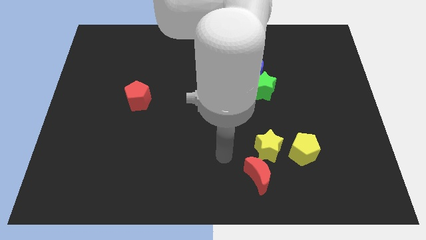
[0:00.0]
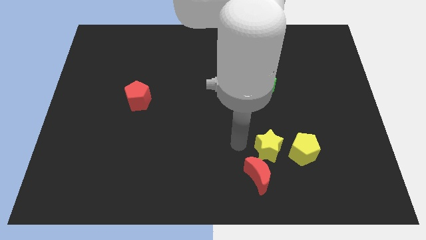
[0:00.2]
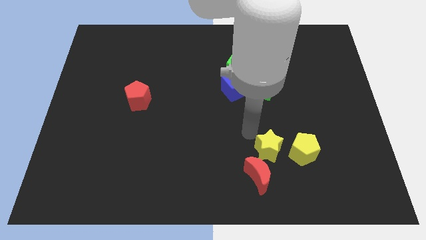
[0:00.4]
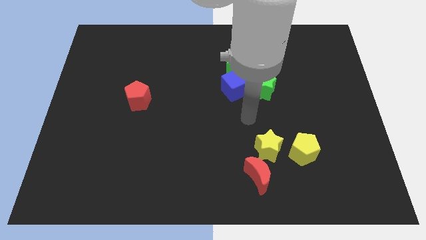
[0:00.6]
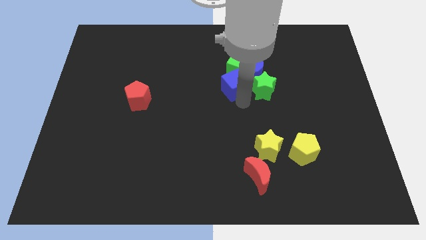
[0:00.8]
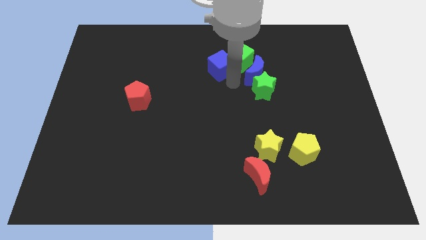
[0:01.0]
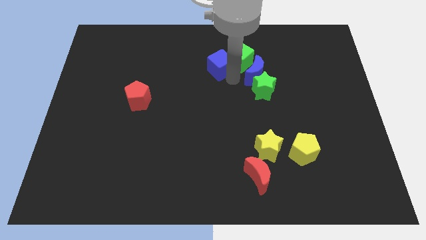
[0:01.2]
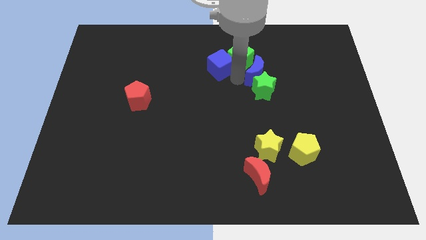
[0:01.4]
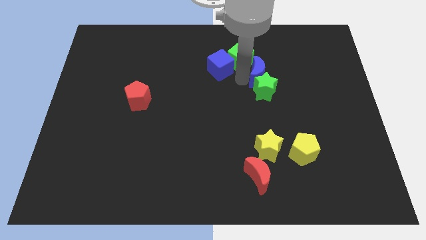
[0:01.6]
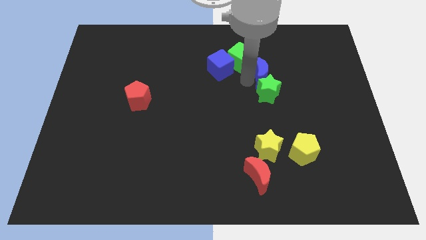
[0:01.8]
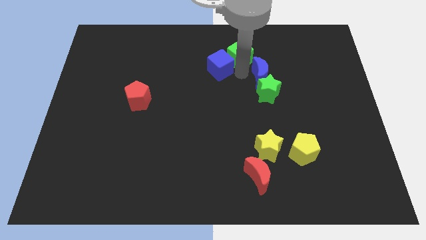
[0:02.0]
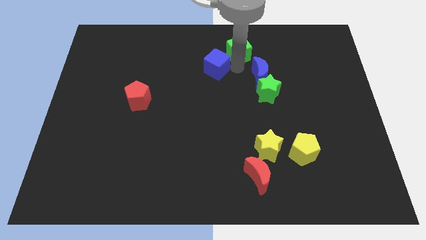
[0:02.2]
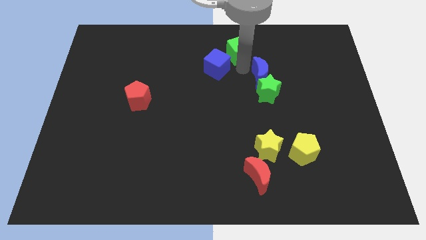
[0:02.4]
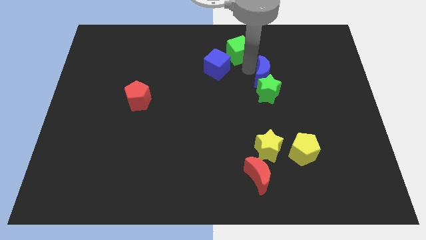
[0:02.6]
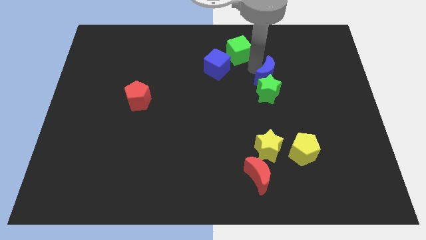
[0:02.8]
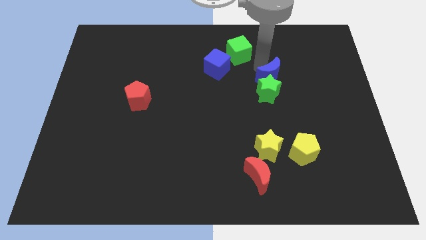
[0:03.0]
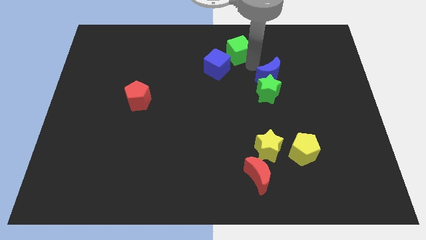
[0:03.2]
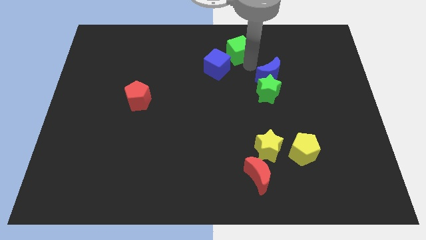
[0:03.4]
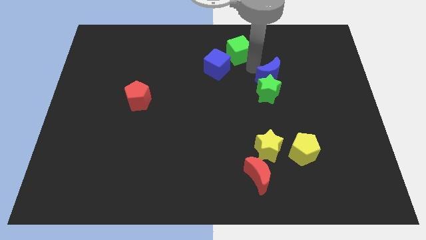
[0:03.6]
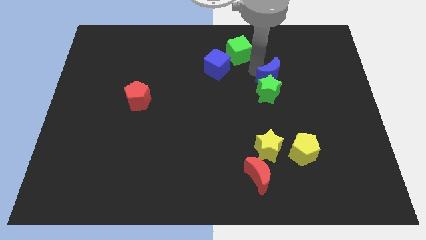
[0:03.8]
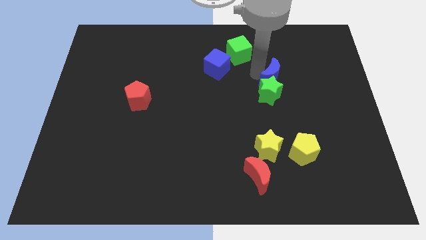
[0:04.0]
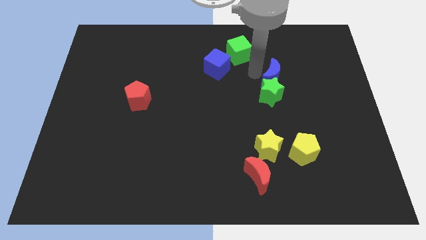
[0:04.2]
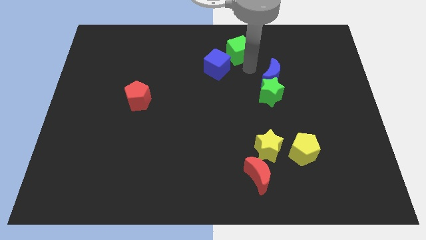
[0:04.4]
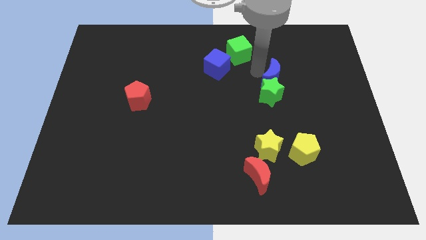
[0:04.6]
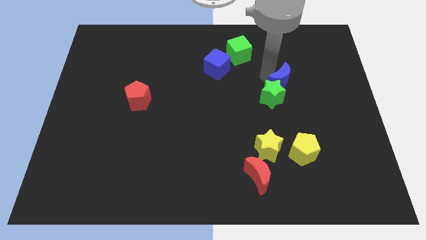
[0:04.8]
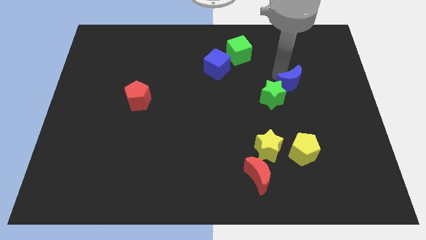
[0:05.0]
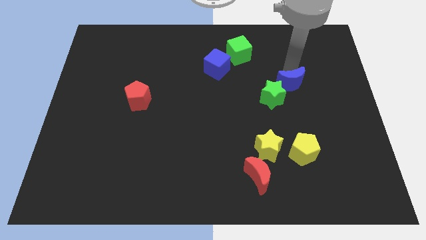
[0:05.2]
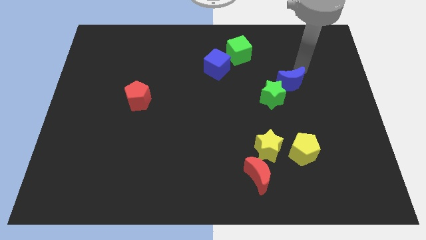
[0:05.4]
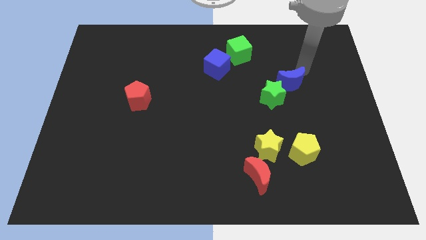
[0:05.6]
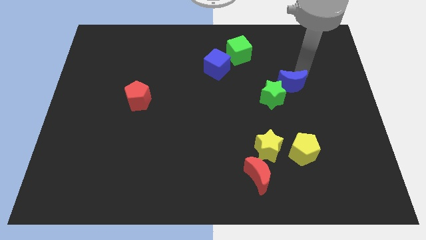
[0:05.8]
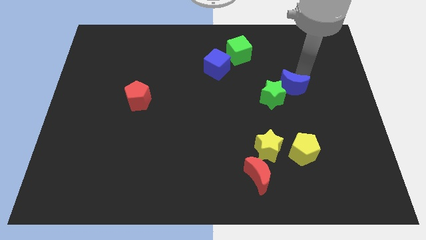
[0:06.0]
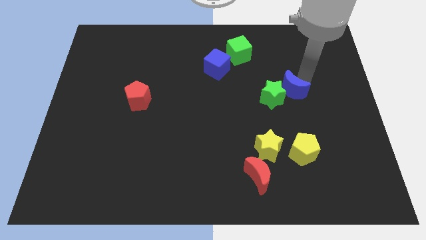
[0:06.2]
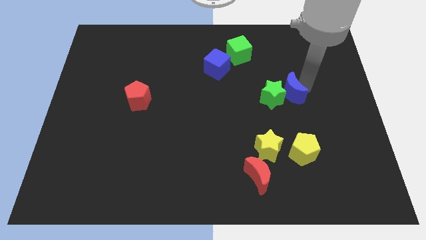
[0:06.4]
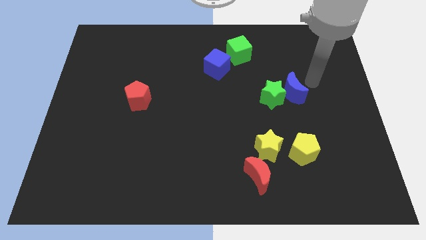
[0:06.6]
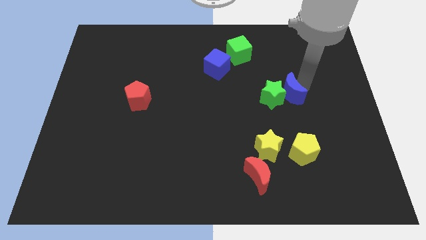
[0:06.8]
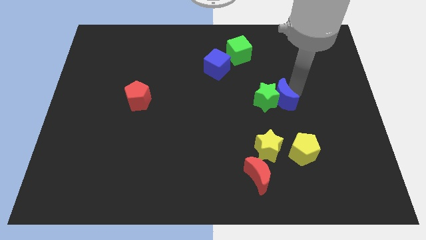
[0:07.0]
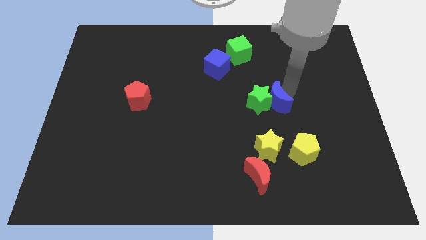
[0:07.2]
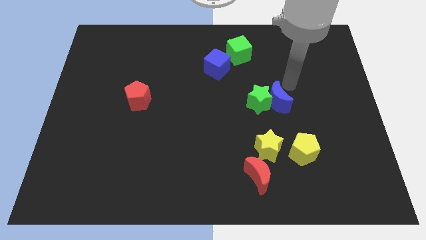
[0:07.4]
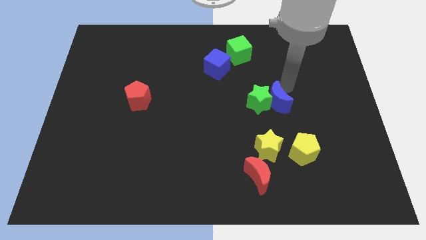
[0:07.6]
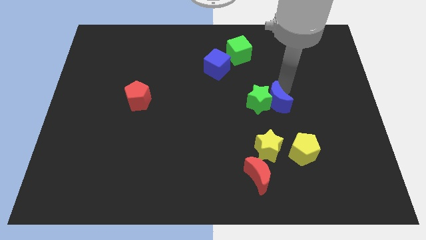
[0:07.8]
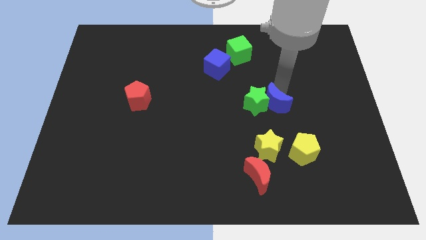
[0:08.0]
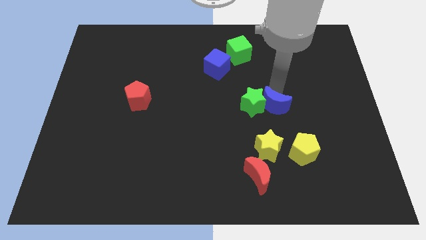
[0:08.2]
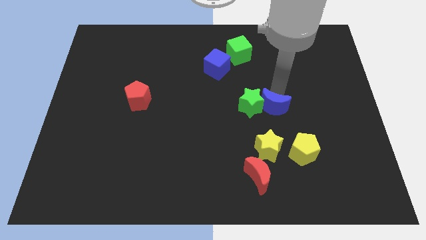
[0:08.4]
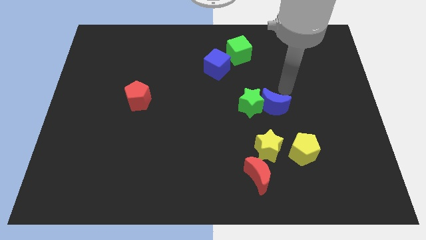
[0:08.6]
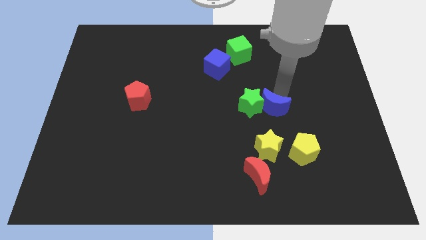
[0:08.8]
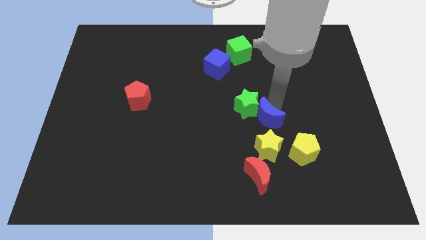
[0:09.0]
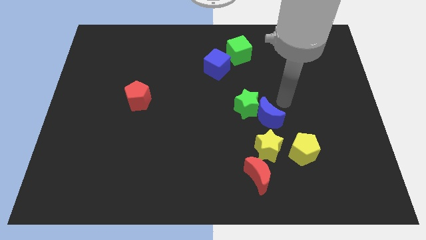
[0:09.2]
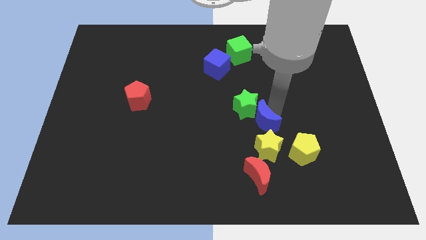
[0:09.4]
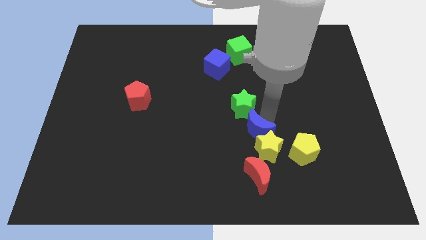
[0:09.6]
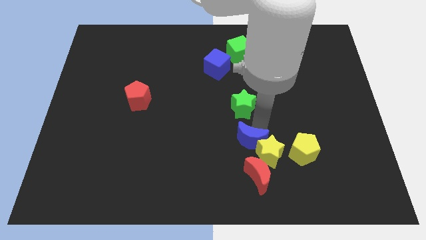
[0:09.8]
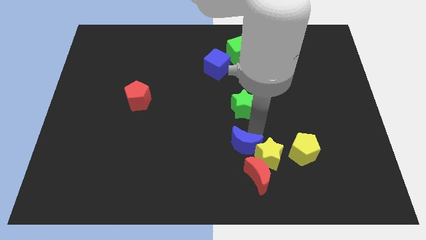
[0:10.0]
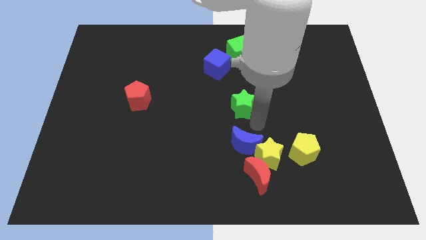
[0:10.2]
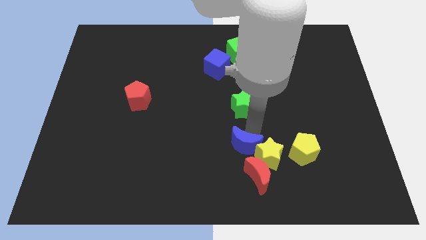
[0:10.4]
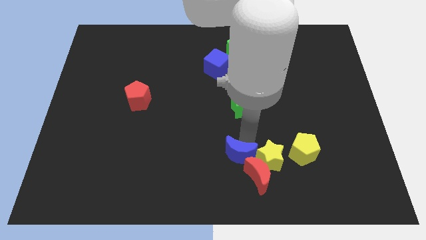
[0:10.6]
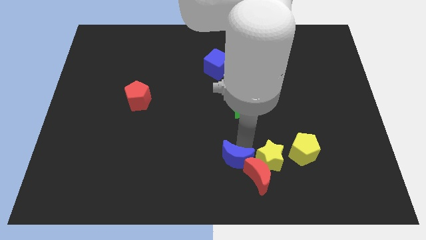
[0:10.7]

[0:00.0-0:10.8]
slide the blue moon to the bottom

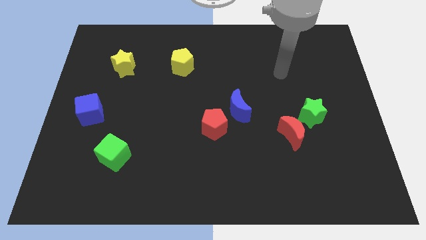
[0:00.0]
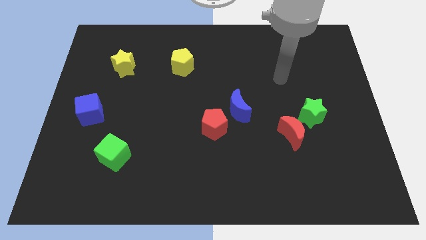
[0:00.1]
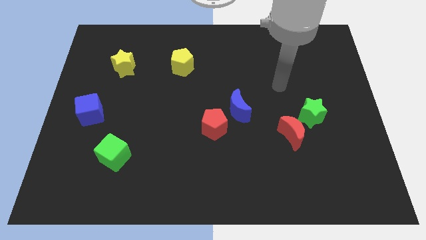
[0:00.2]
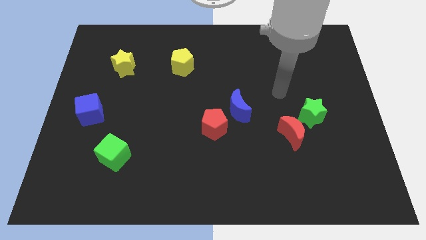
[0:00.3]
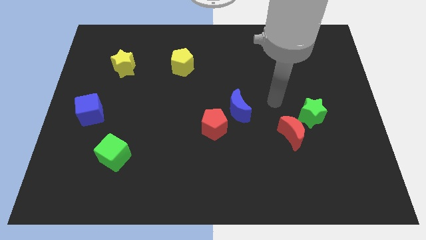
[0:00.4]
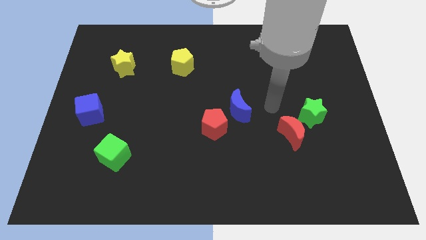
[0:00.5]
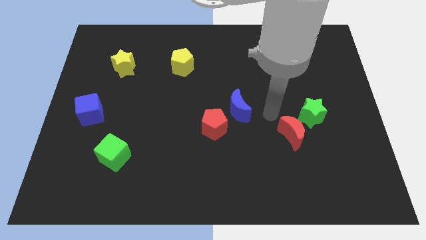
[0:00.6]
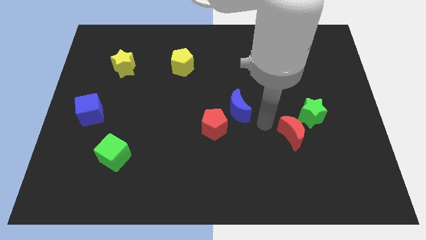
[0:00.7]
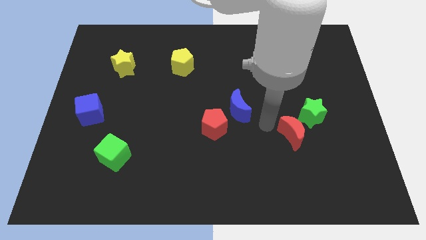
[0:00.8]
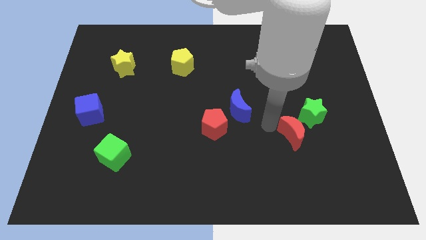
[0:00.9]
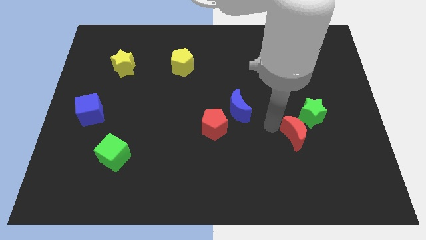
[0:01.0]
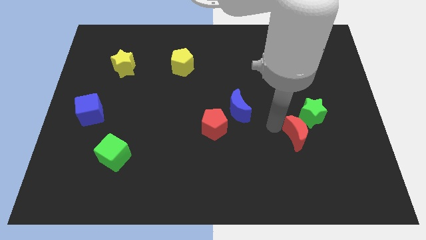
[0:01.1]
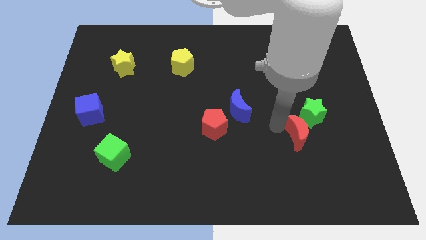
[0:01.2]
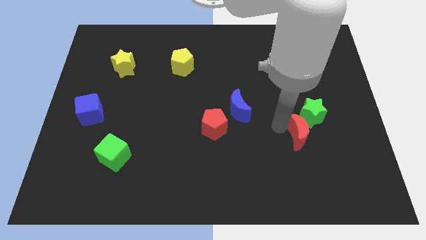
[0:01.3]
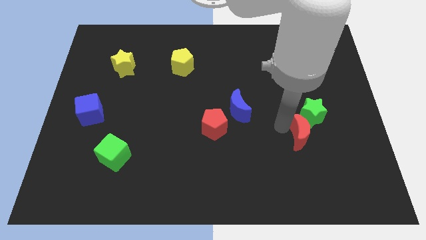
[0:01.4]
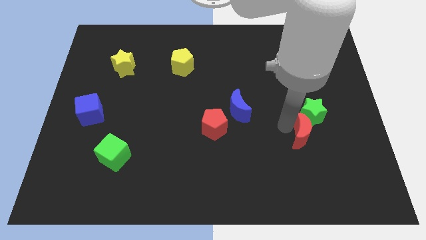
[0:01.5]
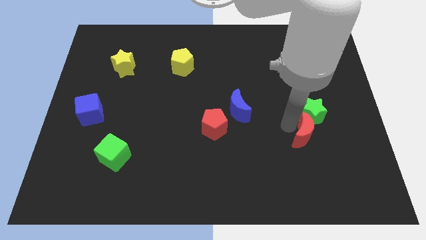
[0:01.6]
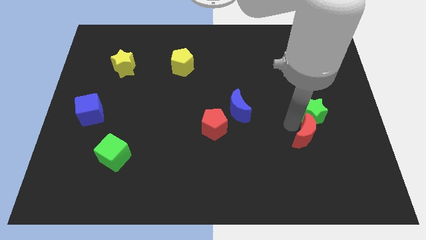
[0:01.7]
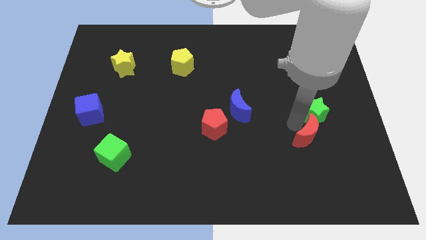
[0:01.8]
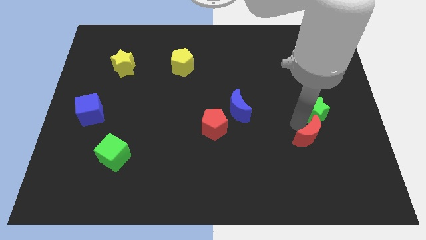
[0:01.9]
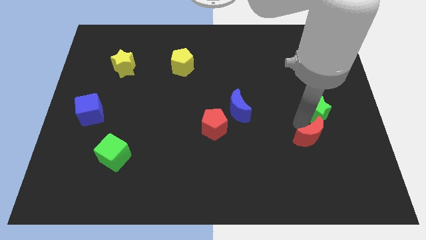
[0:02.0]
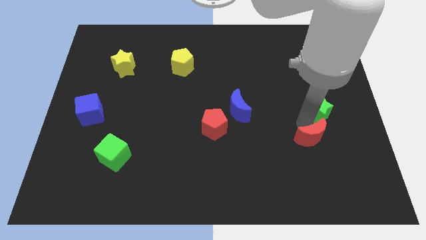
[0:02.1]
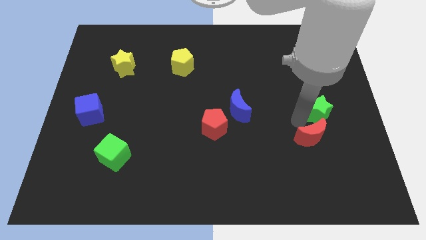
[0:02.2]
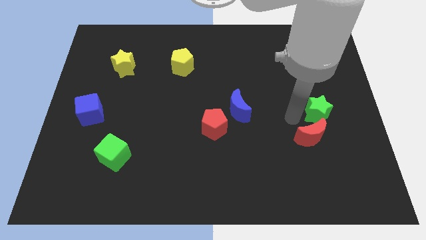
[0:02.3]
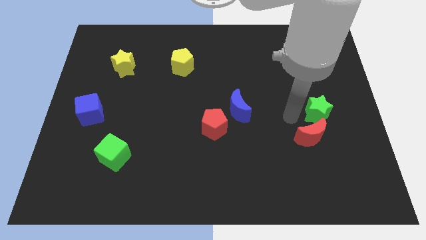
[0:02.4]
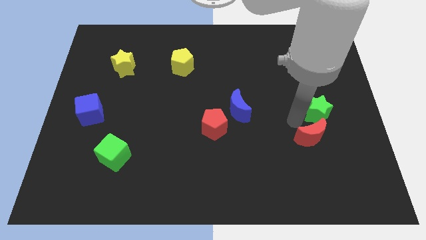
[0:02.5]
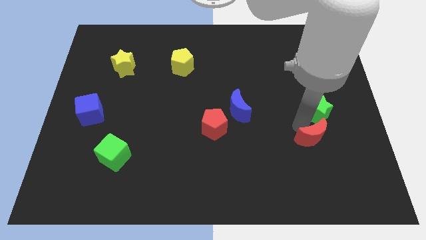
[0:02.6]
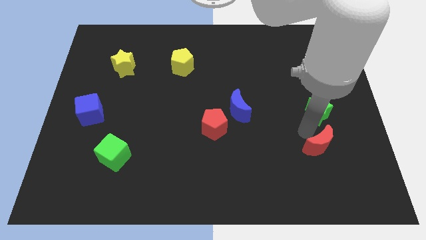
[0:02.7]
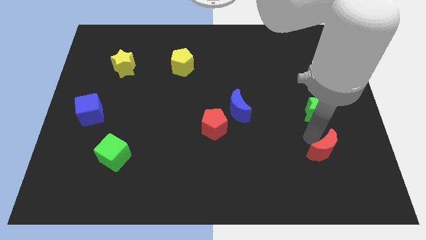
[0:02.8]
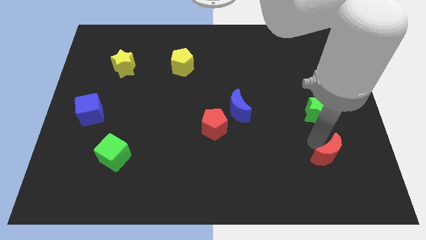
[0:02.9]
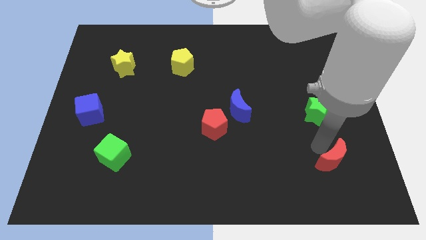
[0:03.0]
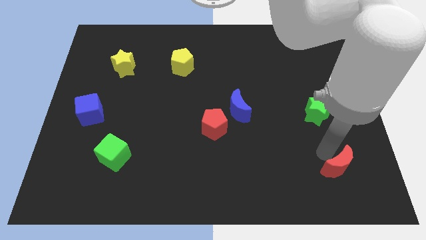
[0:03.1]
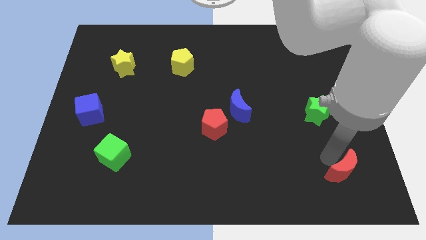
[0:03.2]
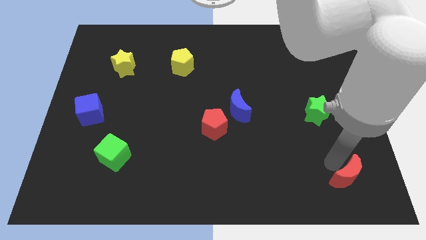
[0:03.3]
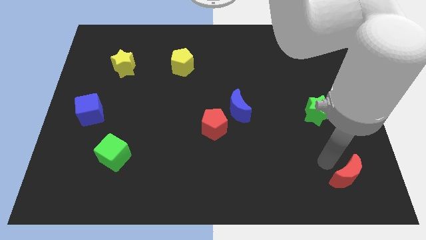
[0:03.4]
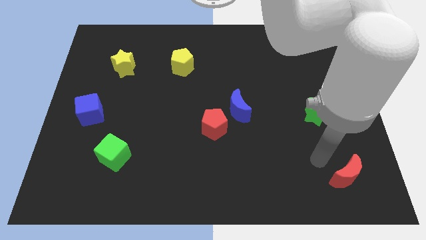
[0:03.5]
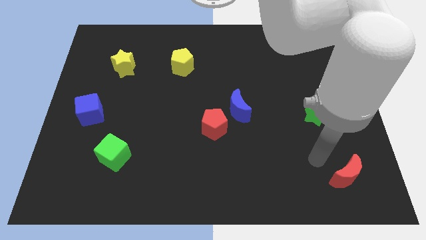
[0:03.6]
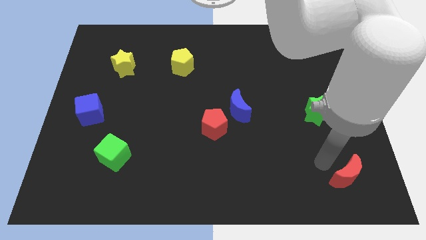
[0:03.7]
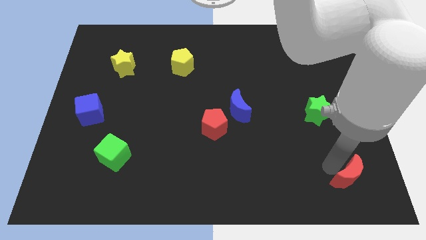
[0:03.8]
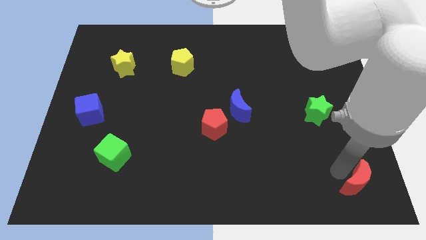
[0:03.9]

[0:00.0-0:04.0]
move the red moon to the bottom right corner
